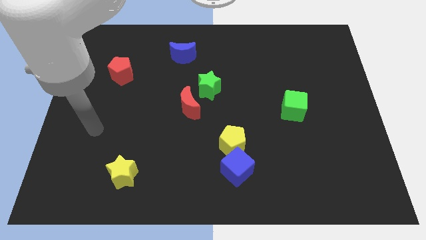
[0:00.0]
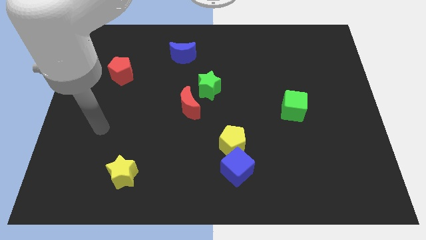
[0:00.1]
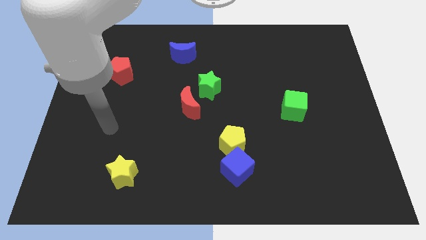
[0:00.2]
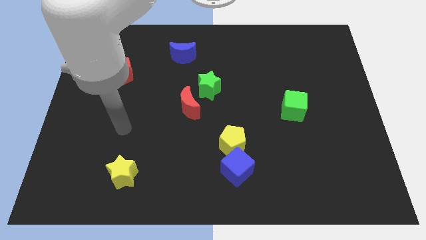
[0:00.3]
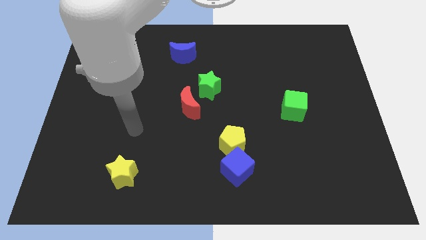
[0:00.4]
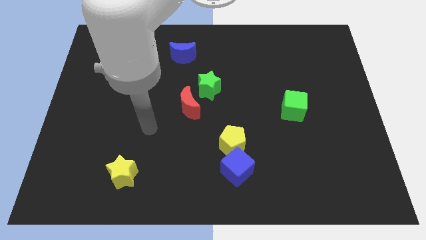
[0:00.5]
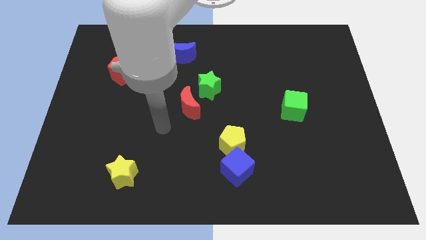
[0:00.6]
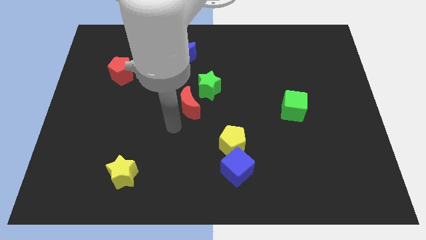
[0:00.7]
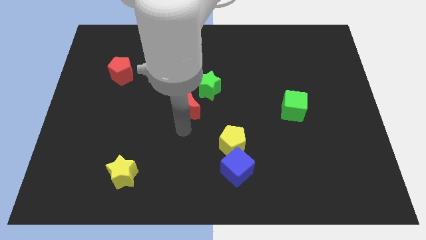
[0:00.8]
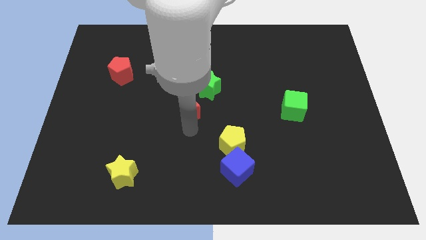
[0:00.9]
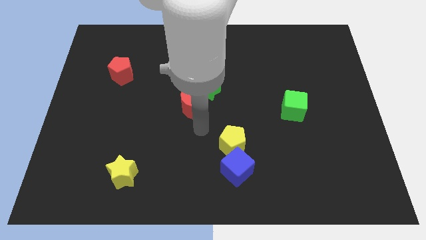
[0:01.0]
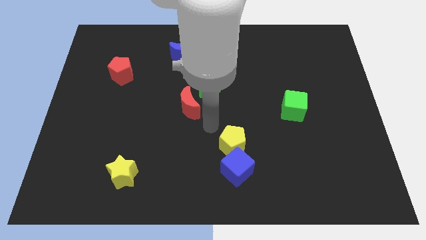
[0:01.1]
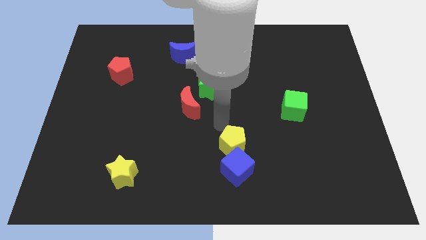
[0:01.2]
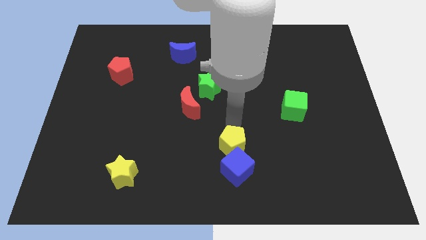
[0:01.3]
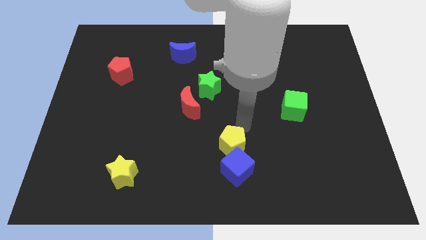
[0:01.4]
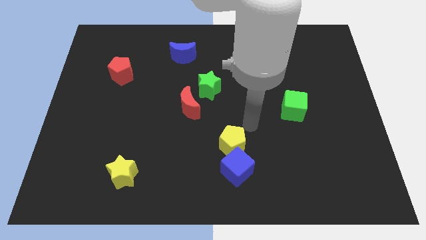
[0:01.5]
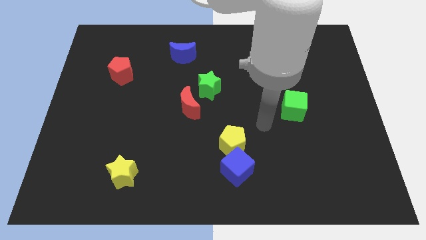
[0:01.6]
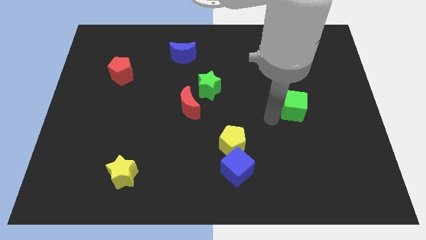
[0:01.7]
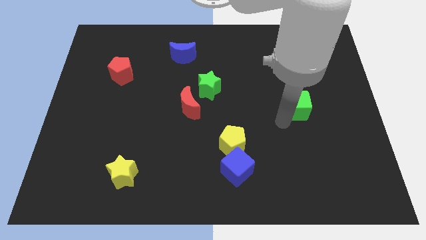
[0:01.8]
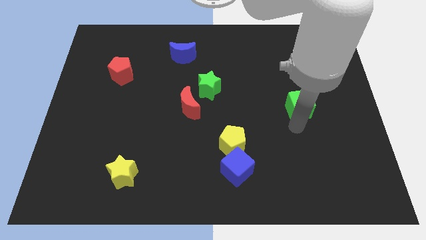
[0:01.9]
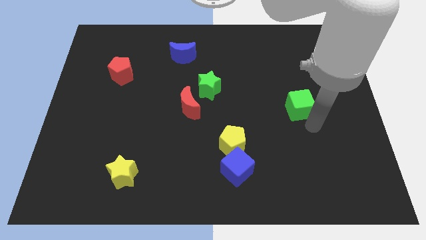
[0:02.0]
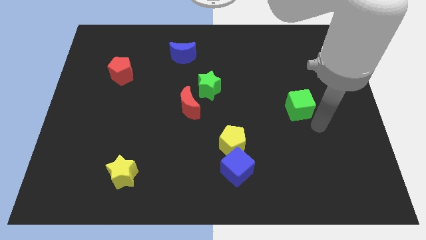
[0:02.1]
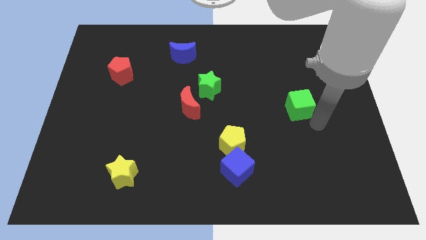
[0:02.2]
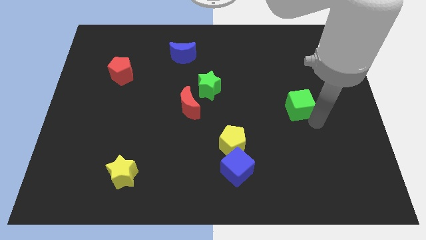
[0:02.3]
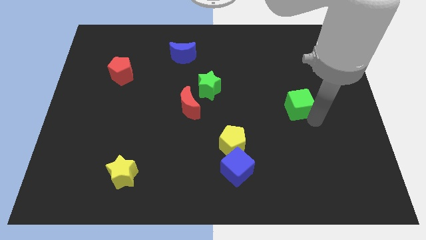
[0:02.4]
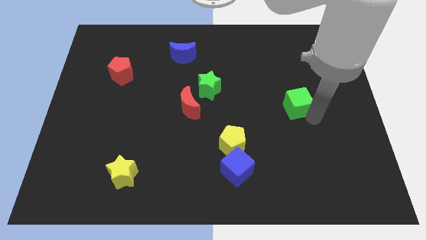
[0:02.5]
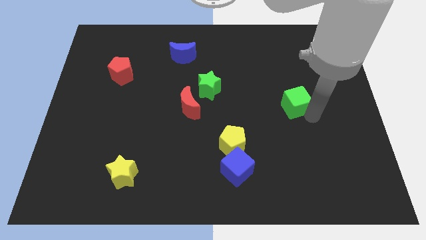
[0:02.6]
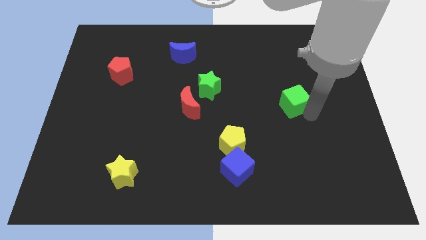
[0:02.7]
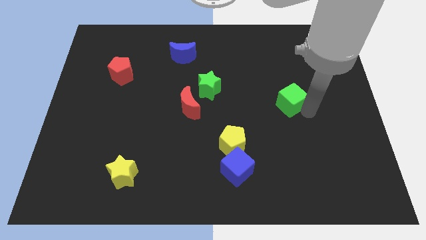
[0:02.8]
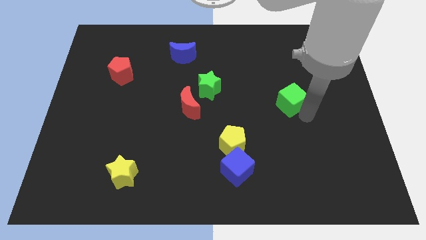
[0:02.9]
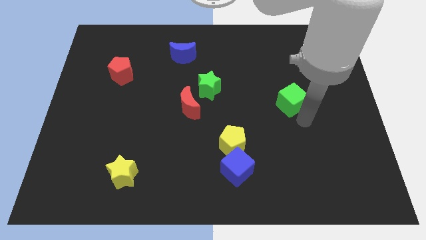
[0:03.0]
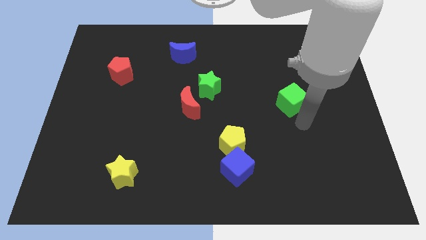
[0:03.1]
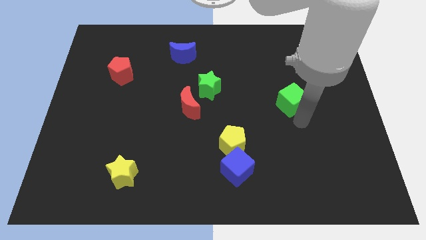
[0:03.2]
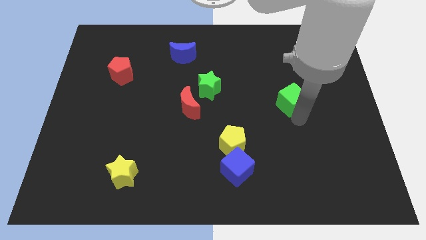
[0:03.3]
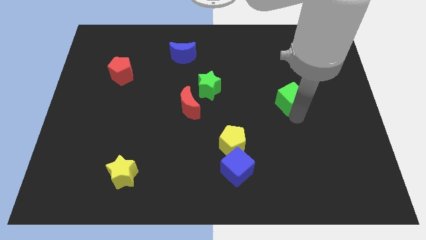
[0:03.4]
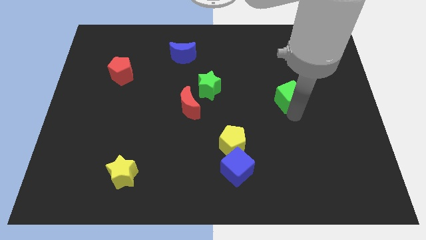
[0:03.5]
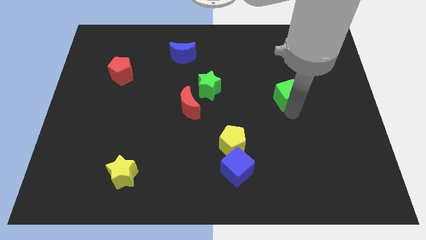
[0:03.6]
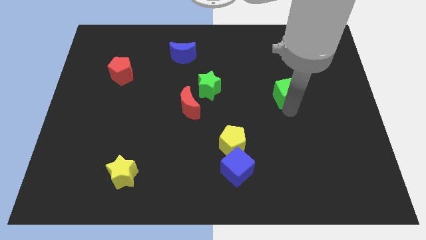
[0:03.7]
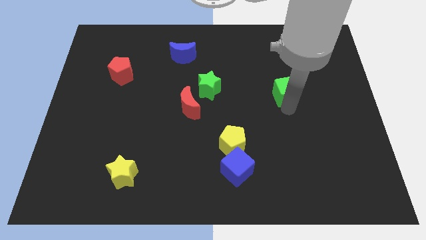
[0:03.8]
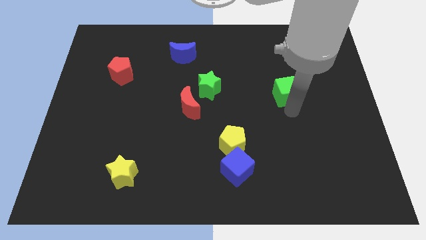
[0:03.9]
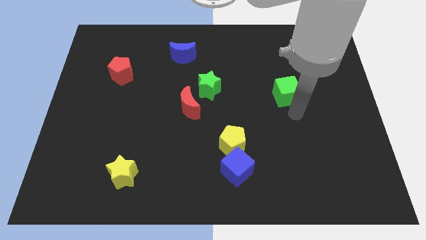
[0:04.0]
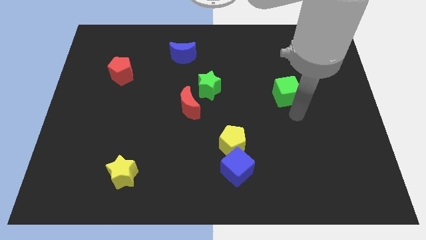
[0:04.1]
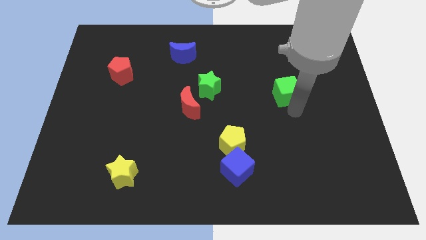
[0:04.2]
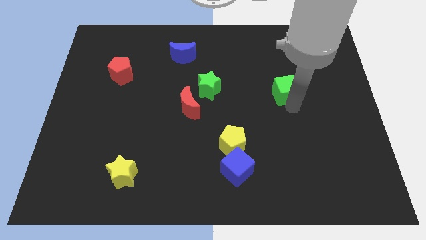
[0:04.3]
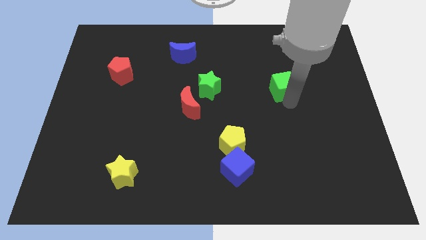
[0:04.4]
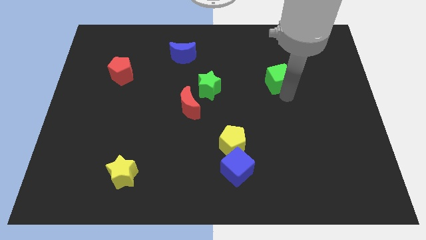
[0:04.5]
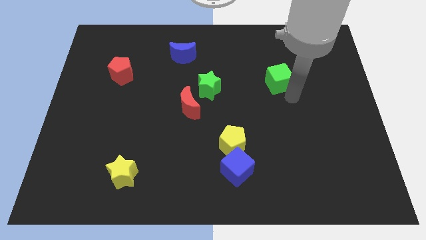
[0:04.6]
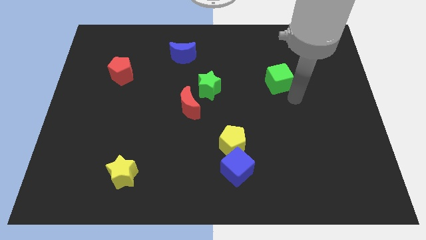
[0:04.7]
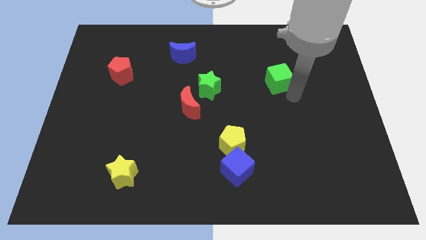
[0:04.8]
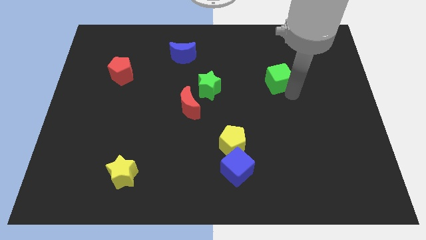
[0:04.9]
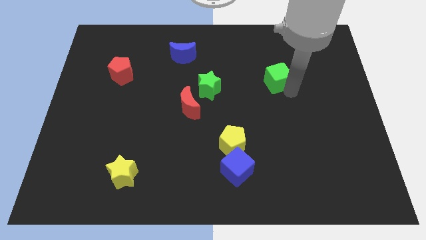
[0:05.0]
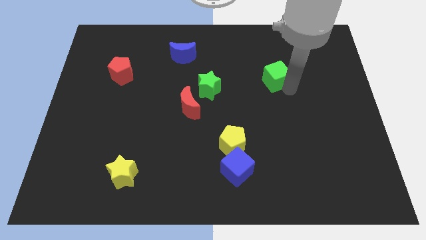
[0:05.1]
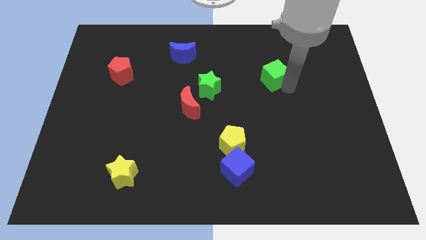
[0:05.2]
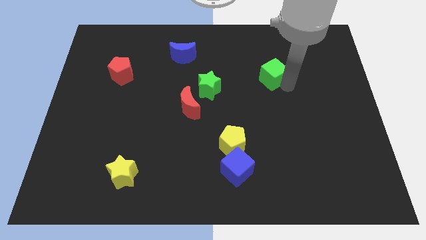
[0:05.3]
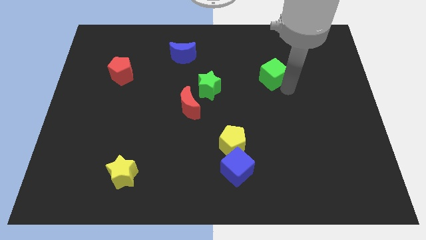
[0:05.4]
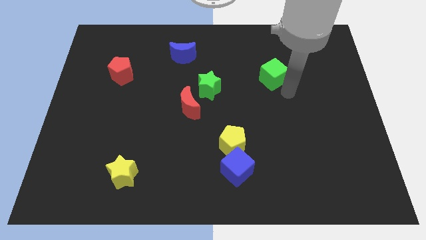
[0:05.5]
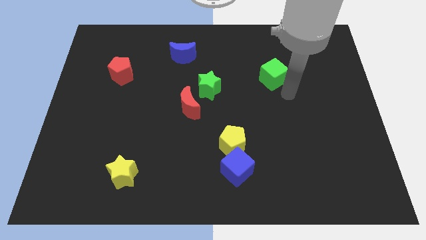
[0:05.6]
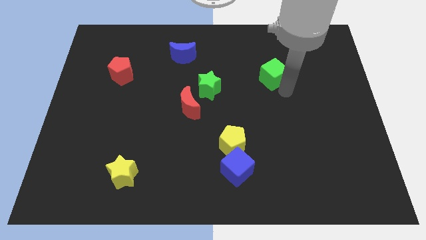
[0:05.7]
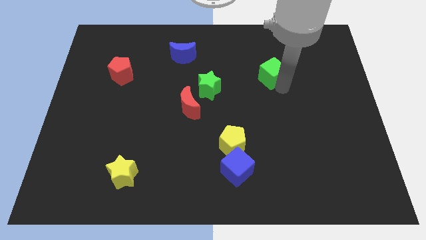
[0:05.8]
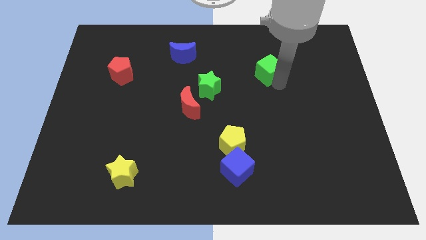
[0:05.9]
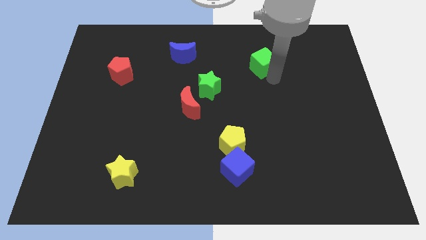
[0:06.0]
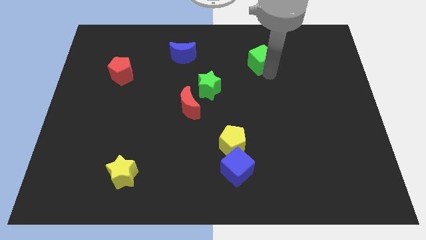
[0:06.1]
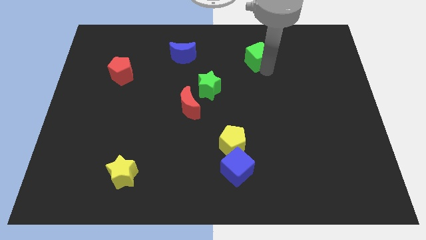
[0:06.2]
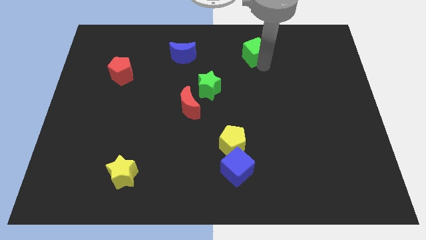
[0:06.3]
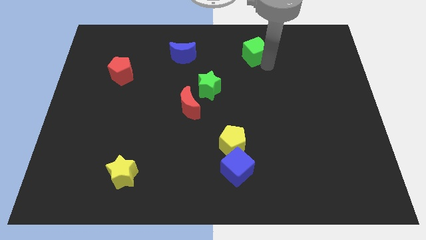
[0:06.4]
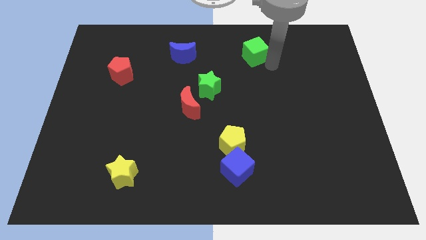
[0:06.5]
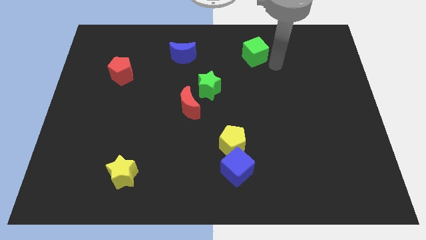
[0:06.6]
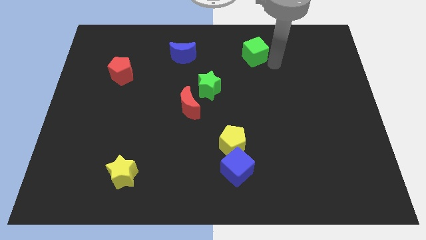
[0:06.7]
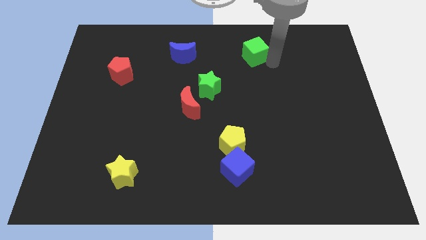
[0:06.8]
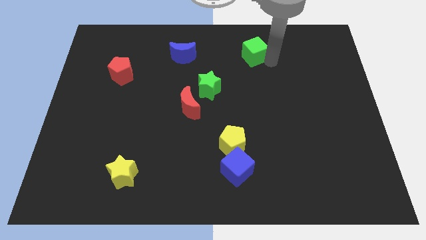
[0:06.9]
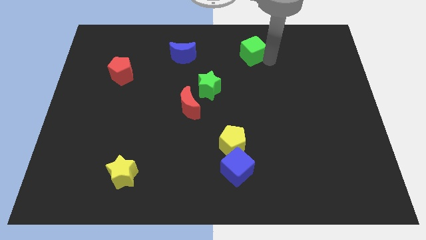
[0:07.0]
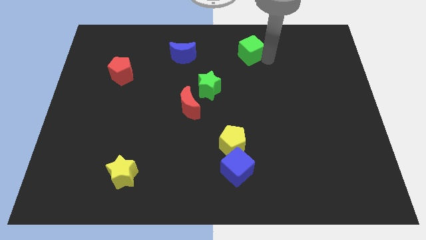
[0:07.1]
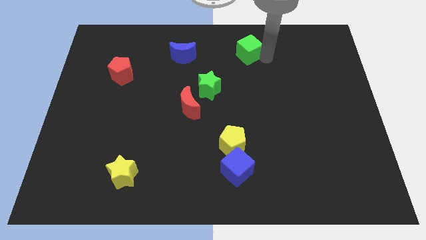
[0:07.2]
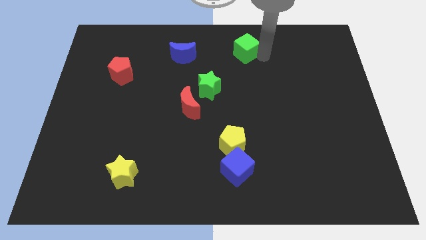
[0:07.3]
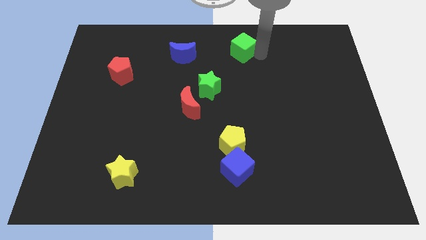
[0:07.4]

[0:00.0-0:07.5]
push the green cube to the towards your base

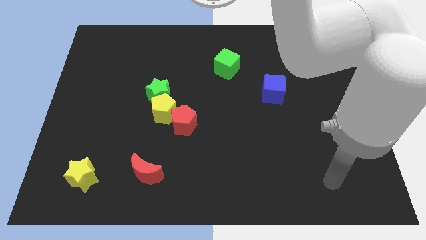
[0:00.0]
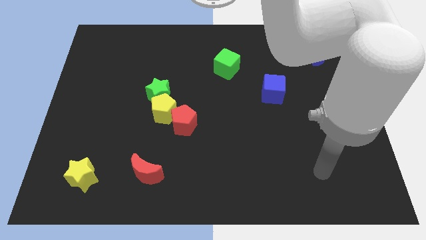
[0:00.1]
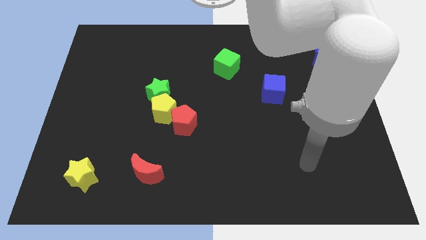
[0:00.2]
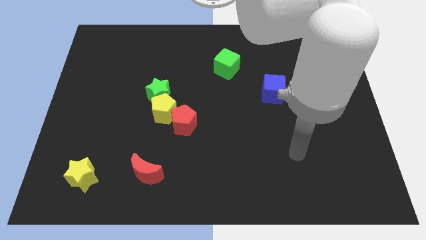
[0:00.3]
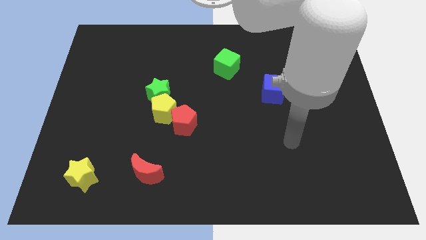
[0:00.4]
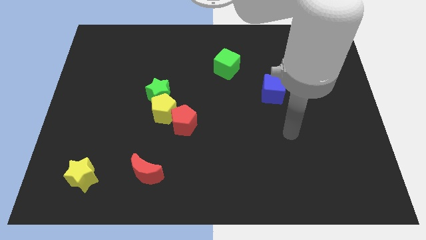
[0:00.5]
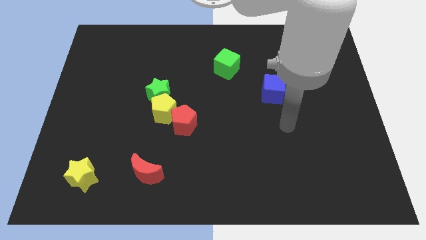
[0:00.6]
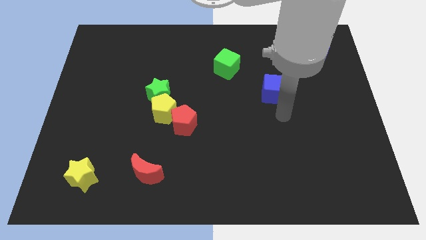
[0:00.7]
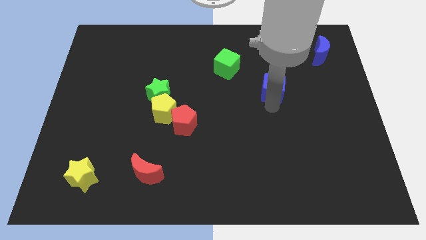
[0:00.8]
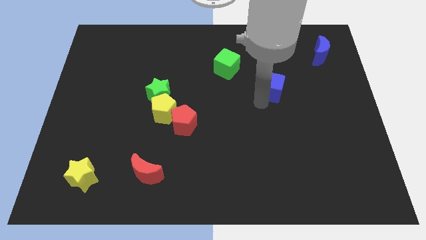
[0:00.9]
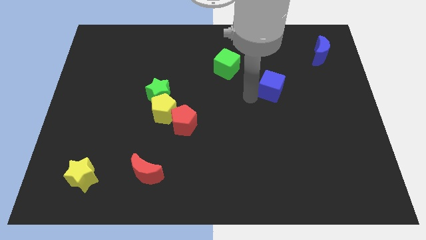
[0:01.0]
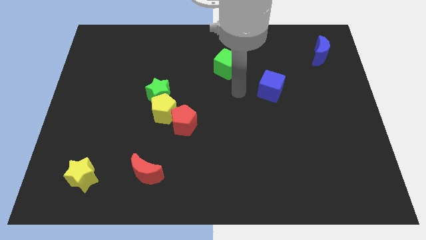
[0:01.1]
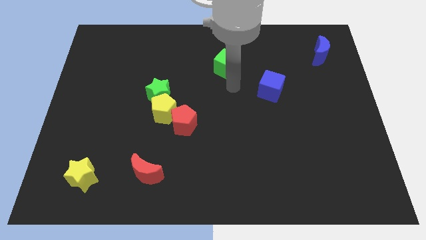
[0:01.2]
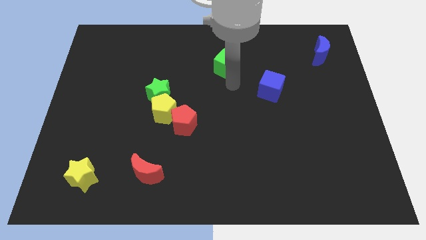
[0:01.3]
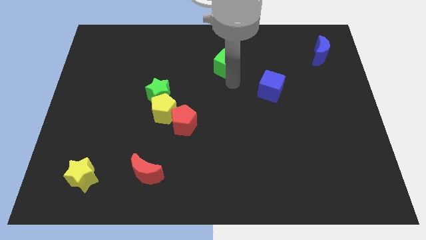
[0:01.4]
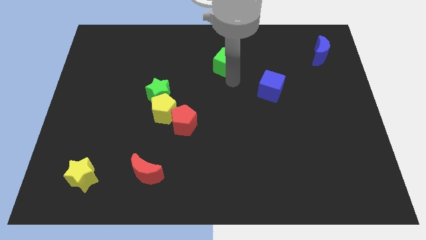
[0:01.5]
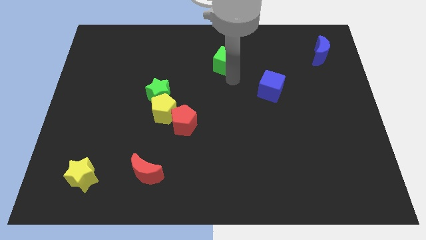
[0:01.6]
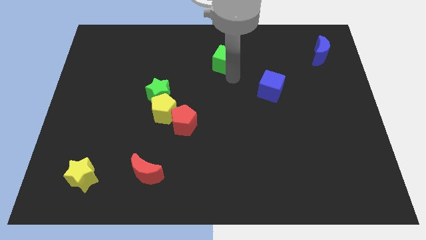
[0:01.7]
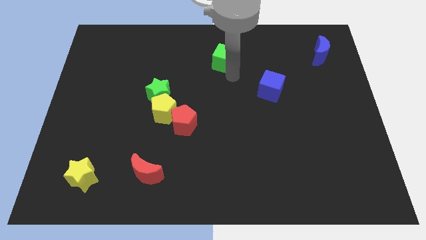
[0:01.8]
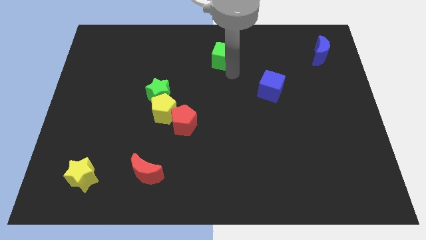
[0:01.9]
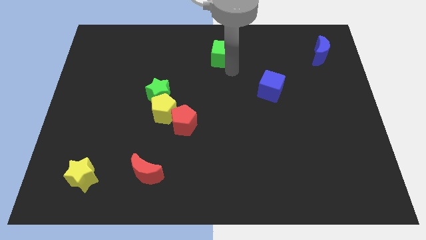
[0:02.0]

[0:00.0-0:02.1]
slide the green cube to the top side
